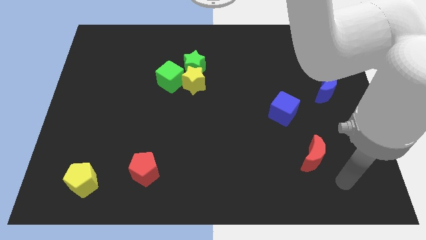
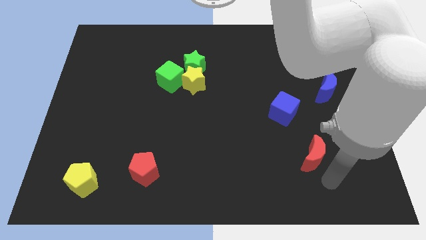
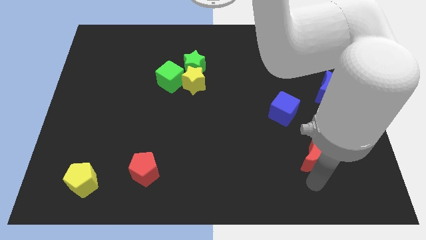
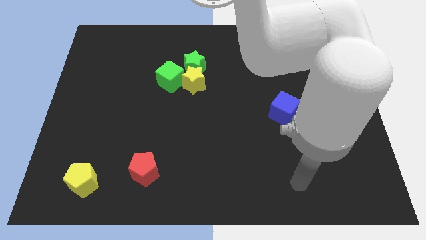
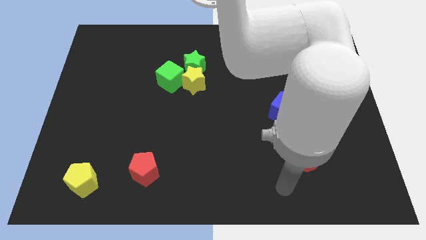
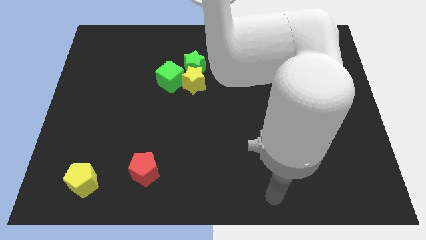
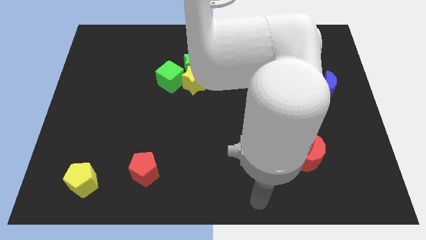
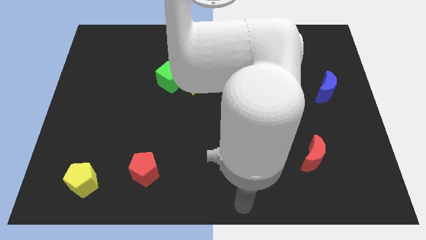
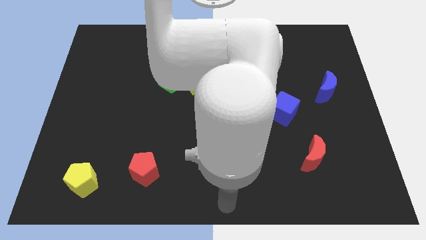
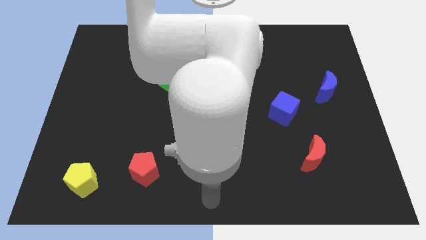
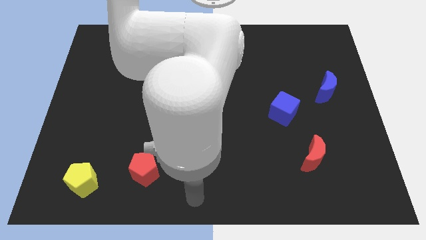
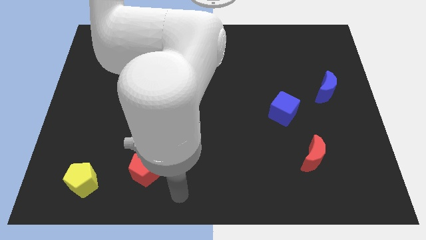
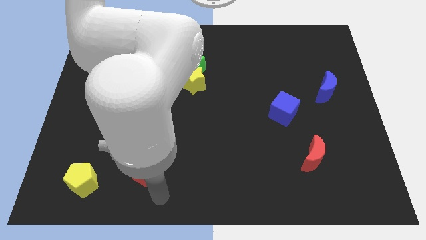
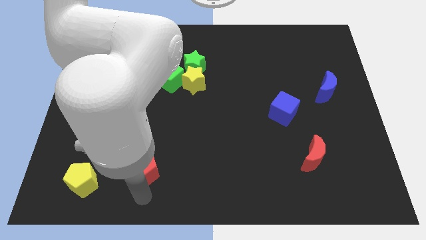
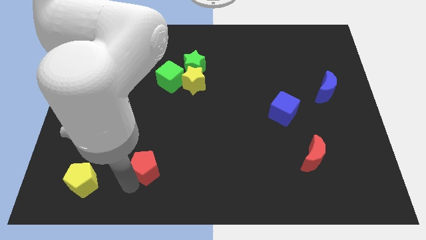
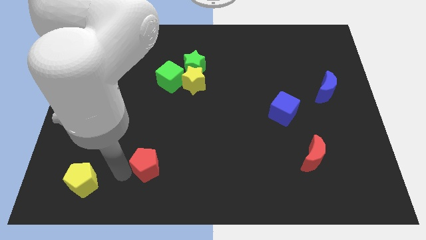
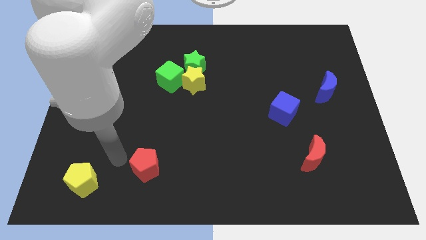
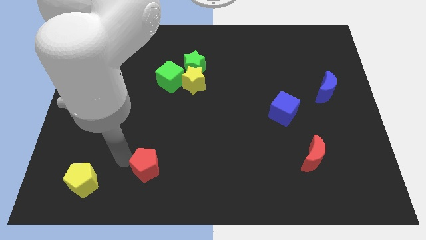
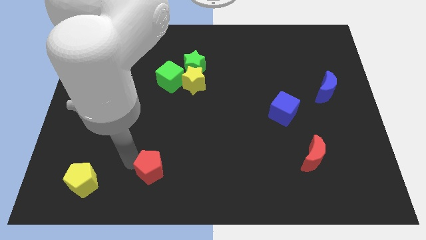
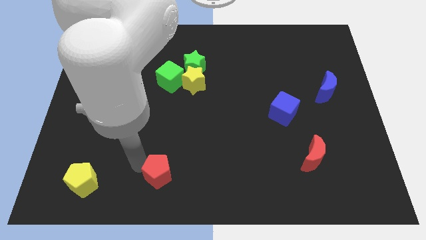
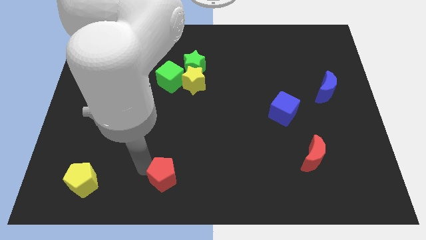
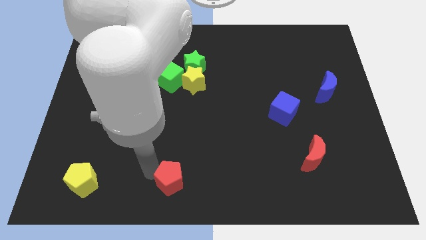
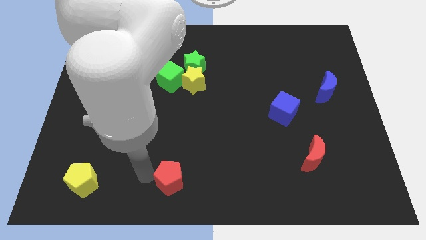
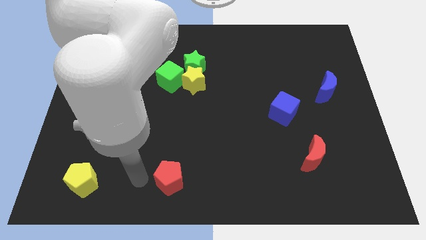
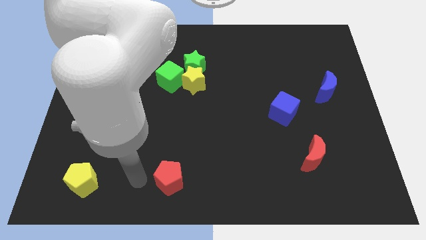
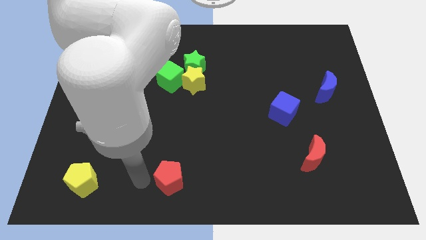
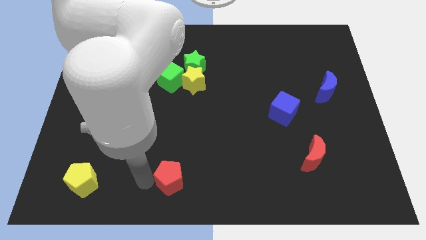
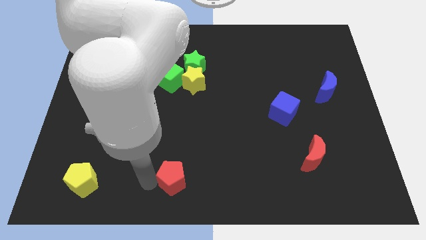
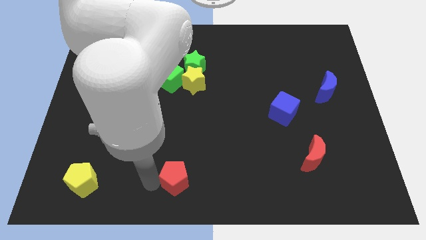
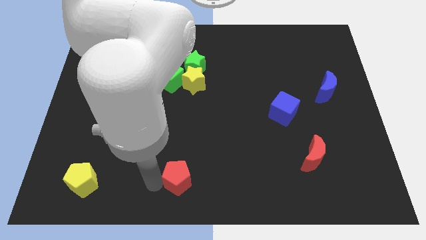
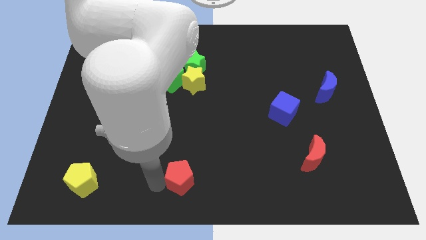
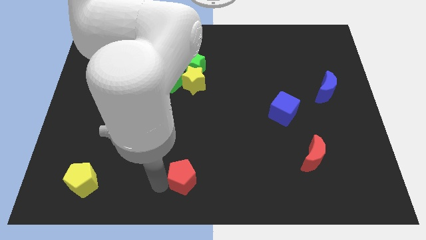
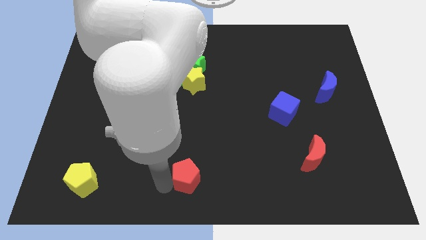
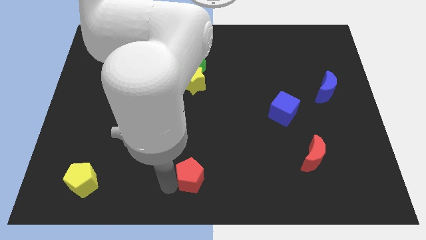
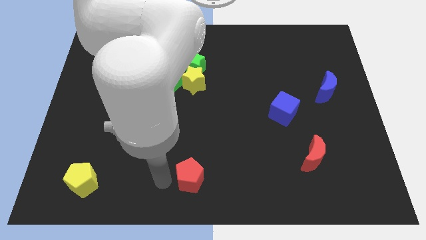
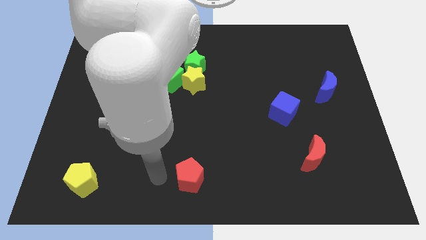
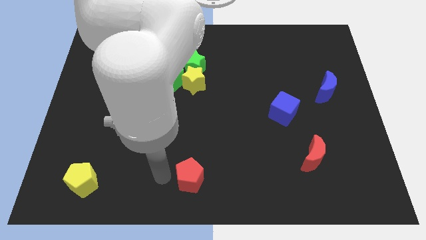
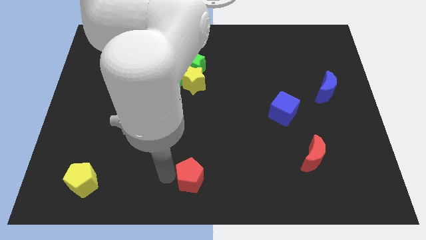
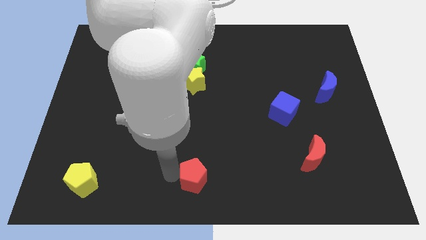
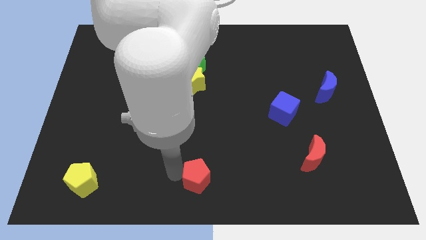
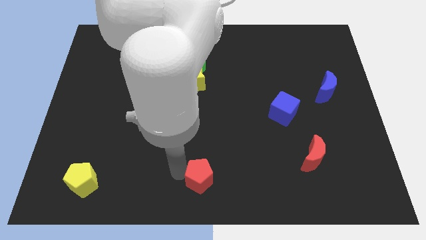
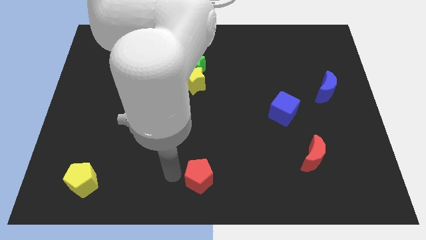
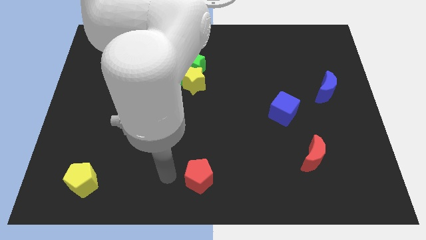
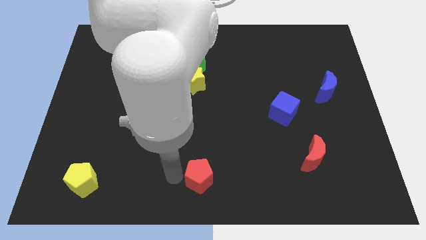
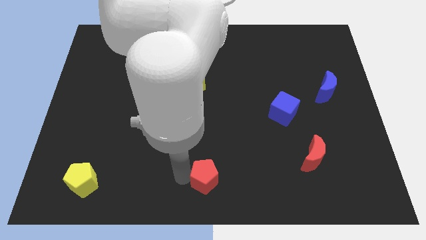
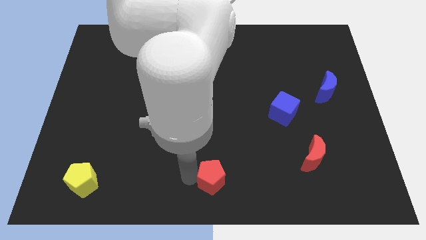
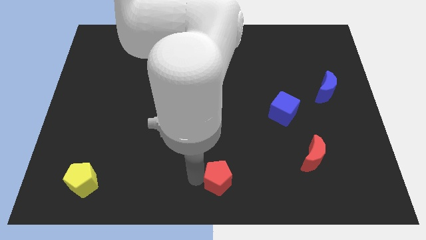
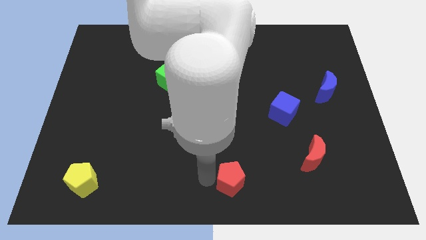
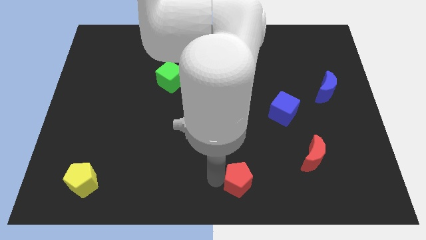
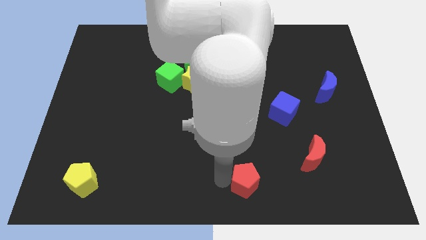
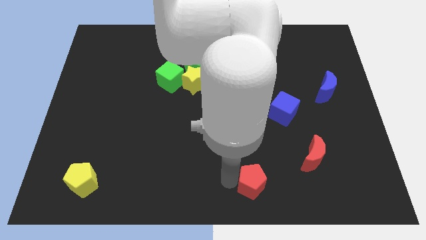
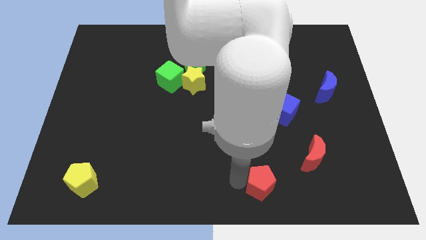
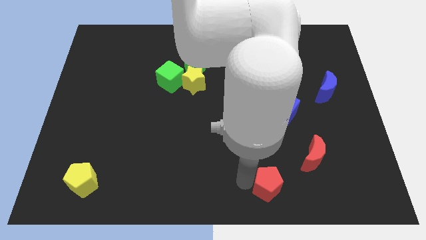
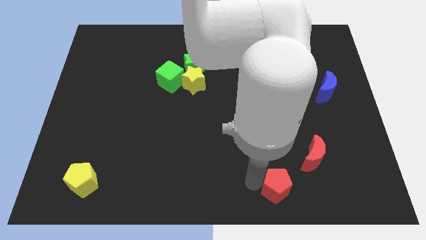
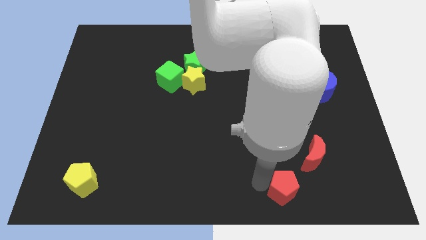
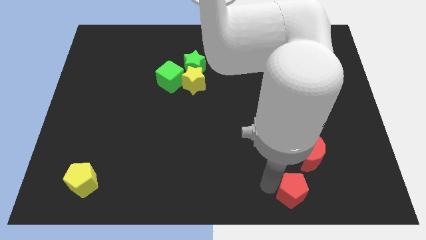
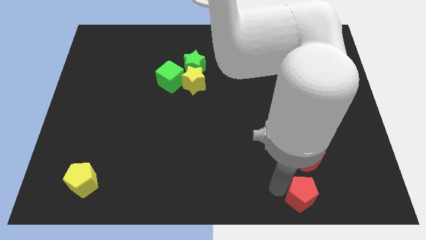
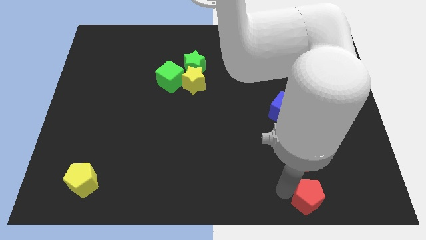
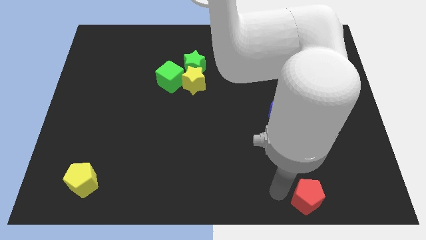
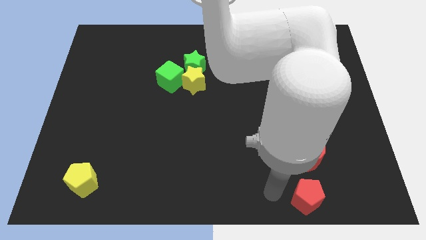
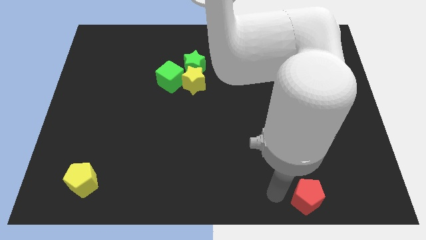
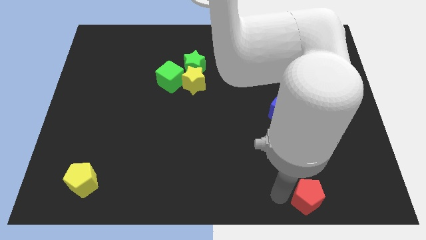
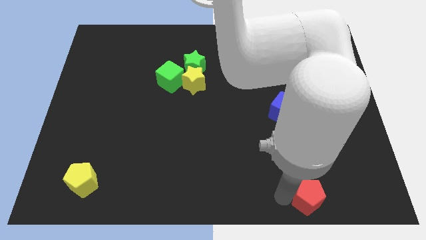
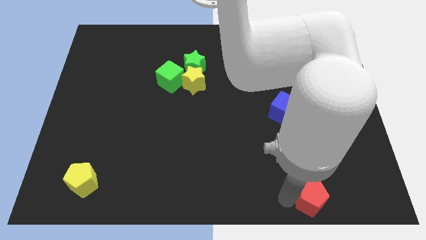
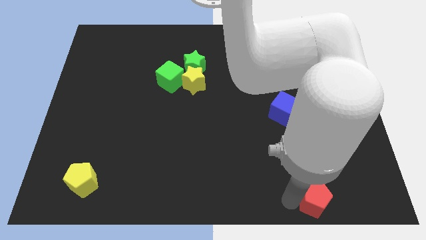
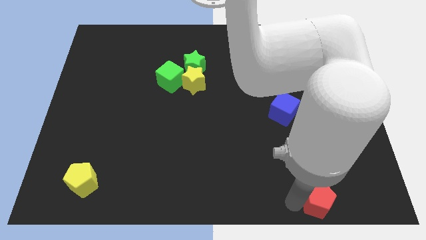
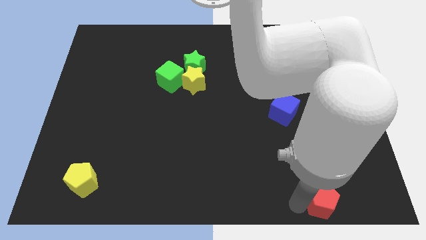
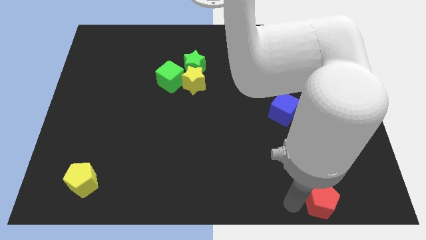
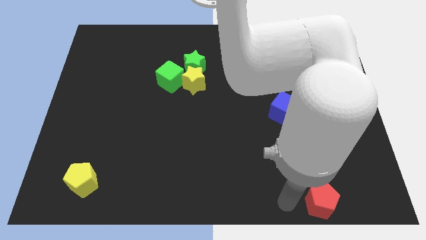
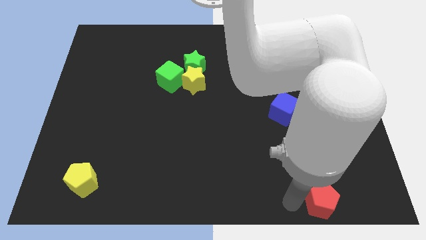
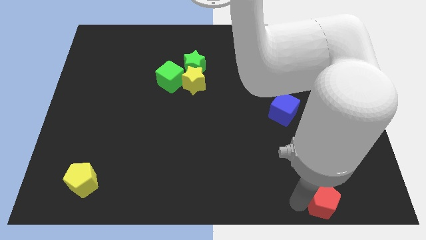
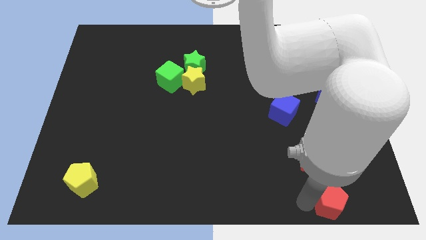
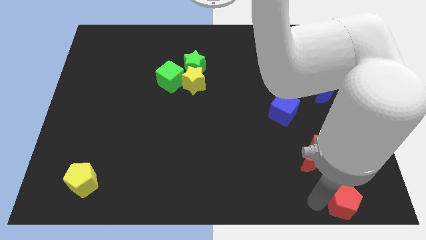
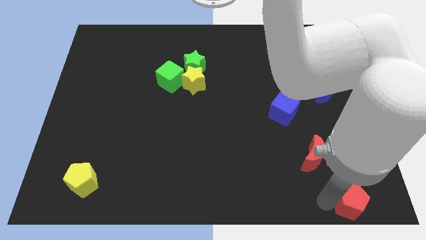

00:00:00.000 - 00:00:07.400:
put the red pentagon to the lower right corner
